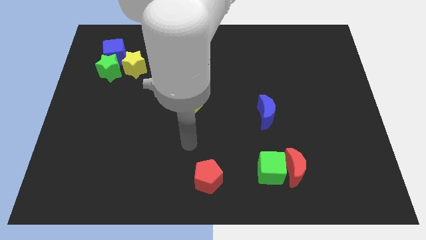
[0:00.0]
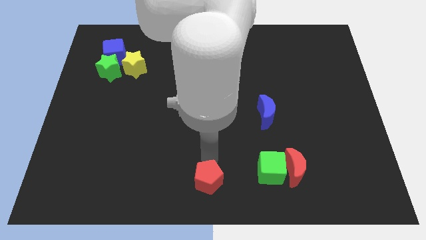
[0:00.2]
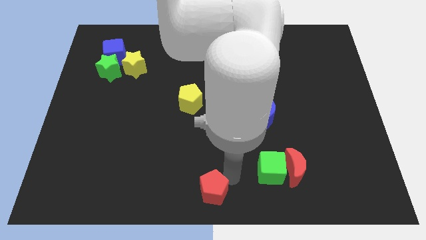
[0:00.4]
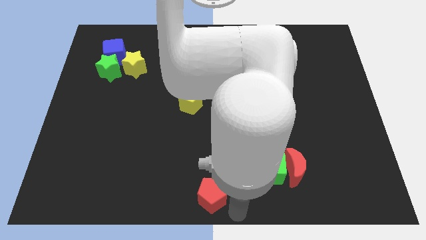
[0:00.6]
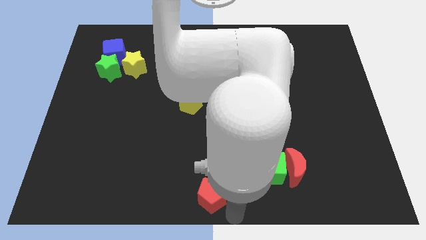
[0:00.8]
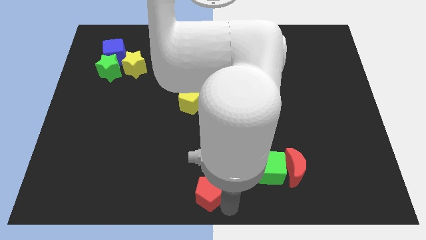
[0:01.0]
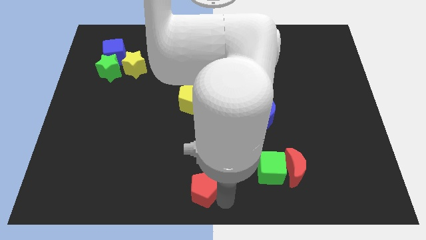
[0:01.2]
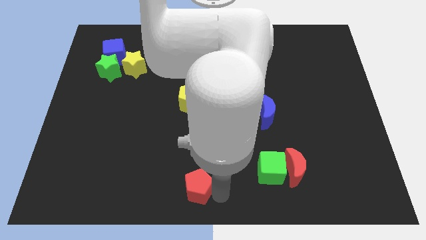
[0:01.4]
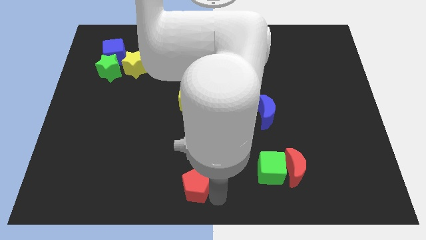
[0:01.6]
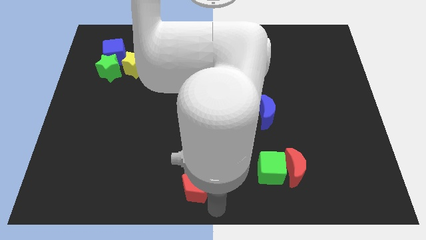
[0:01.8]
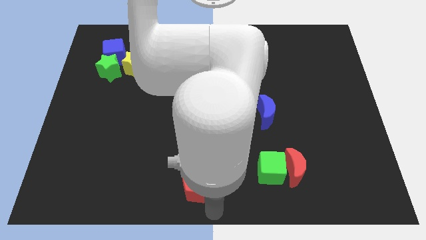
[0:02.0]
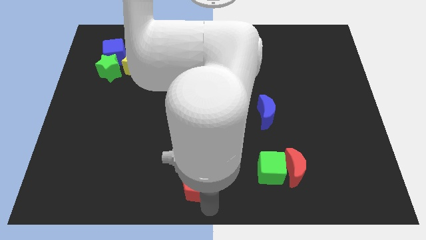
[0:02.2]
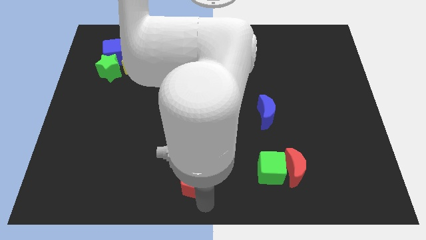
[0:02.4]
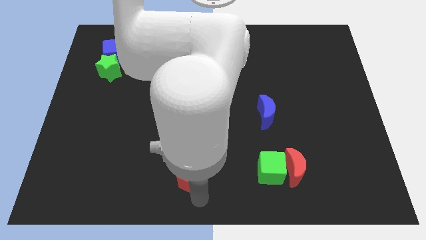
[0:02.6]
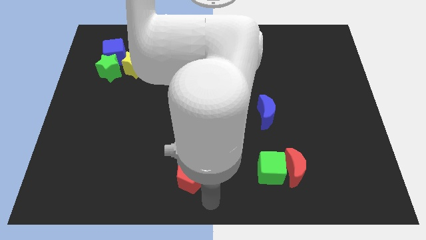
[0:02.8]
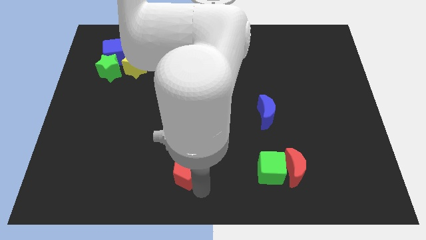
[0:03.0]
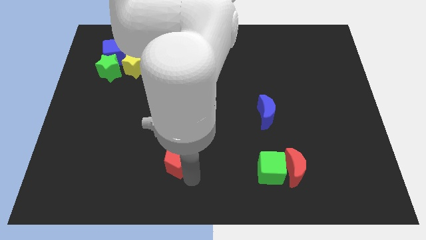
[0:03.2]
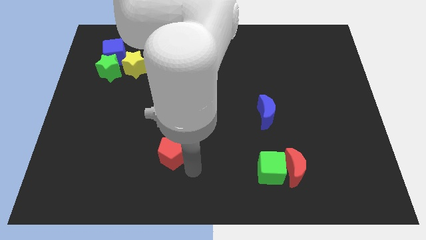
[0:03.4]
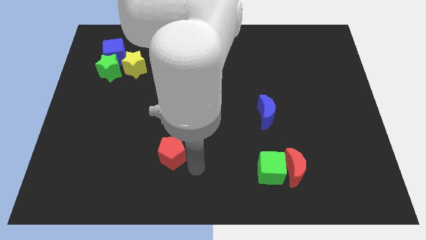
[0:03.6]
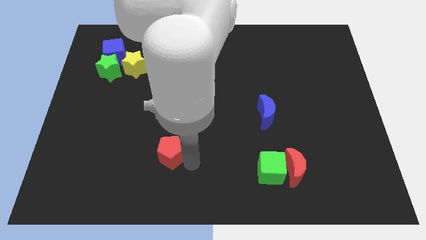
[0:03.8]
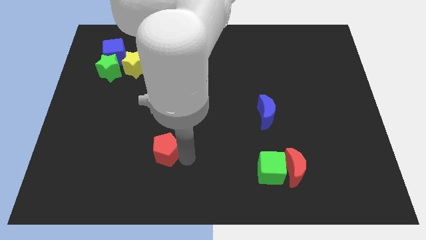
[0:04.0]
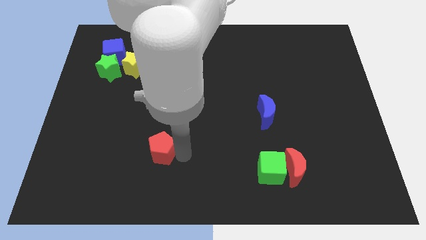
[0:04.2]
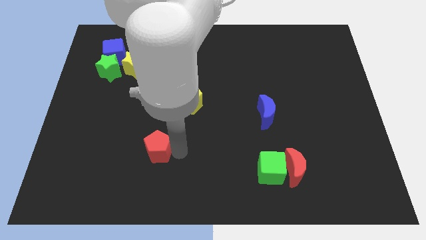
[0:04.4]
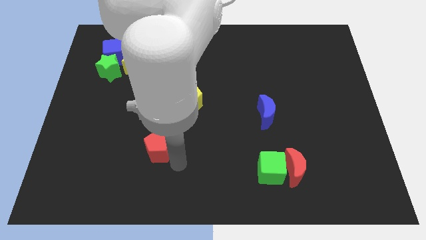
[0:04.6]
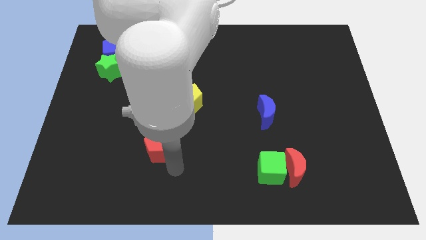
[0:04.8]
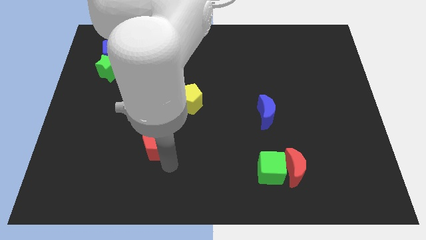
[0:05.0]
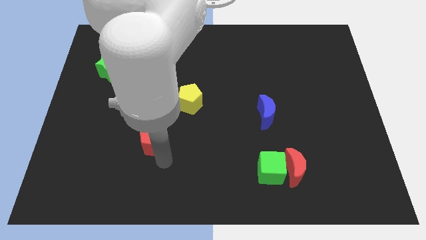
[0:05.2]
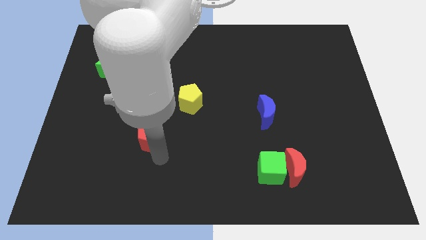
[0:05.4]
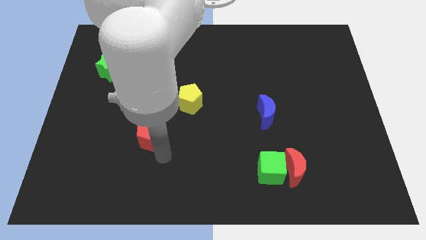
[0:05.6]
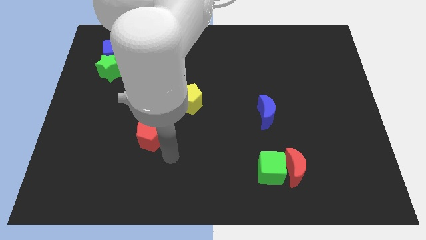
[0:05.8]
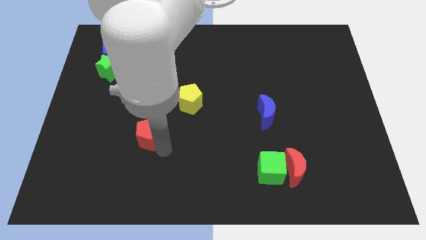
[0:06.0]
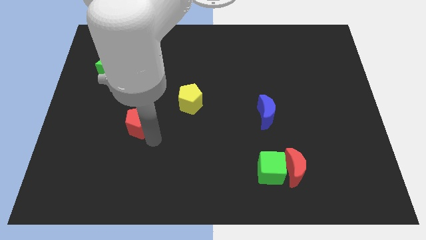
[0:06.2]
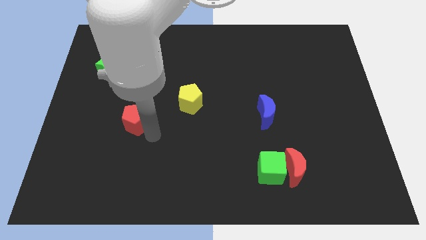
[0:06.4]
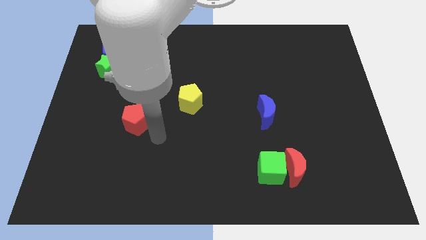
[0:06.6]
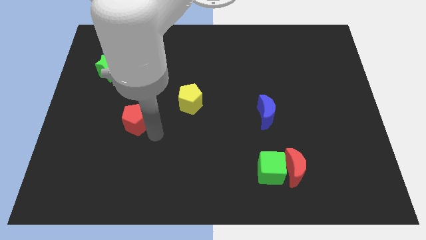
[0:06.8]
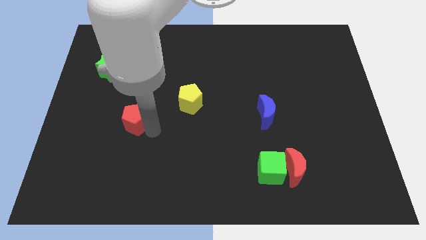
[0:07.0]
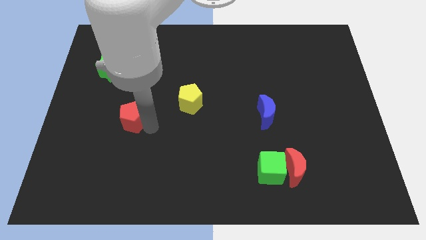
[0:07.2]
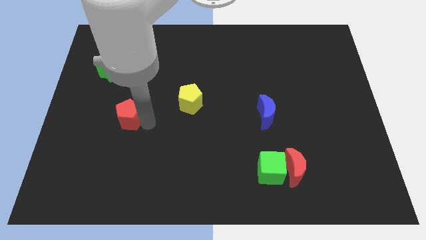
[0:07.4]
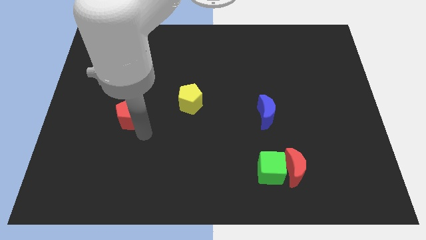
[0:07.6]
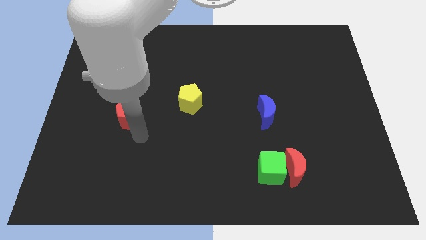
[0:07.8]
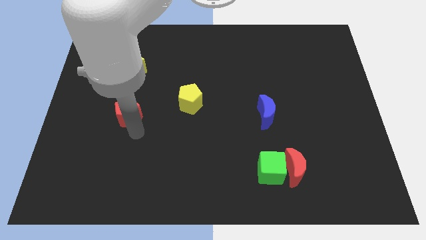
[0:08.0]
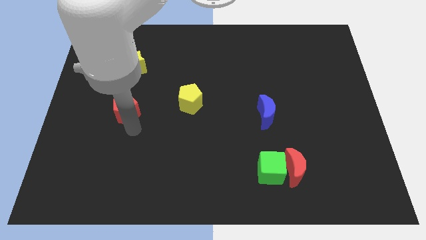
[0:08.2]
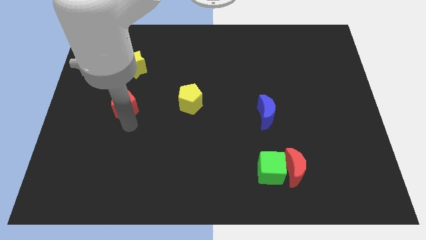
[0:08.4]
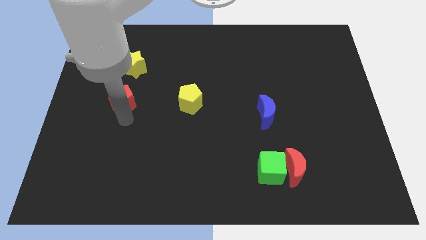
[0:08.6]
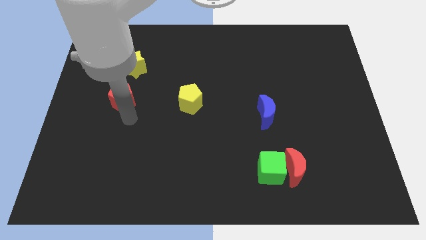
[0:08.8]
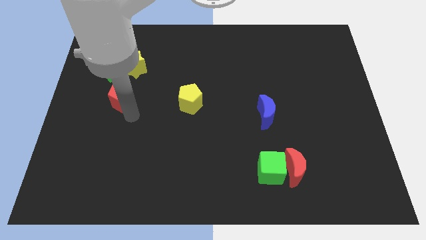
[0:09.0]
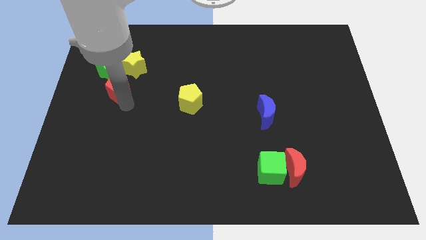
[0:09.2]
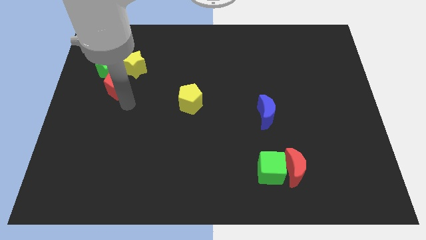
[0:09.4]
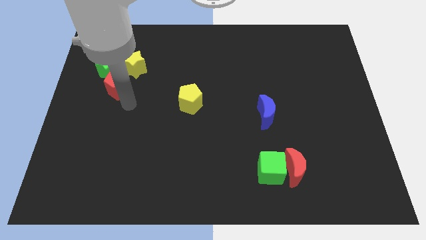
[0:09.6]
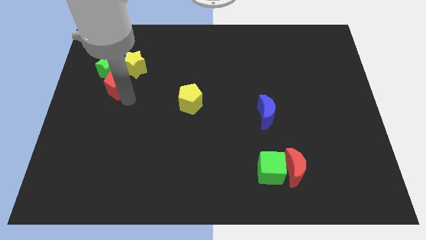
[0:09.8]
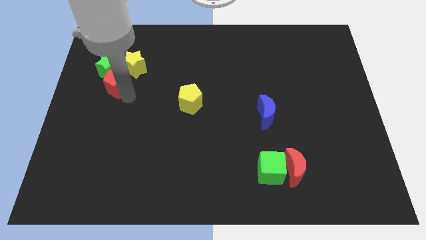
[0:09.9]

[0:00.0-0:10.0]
slide the red pentagon next to the green star

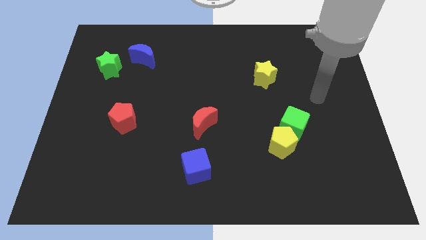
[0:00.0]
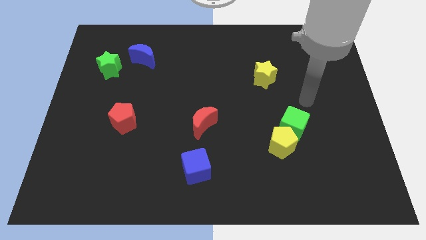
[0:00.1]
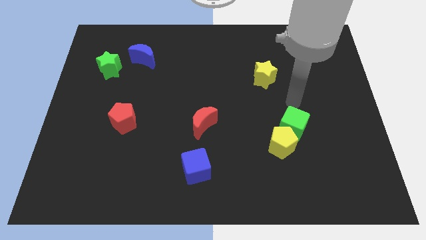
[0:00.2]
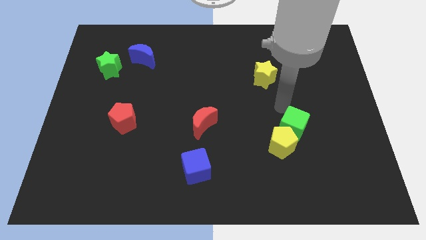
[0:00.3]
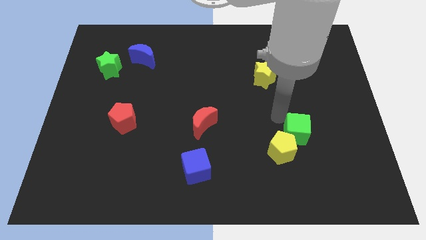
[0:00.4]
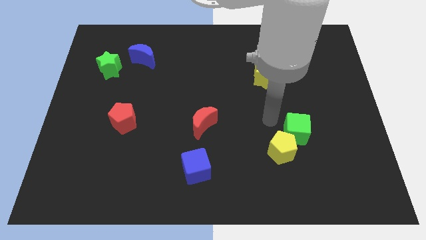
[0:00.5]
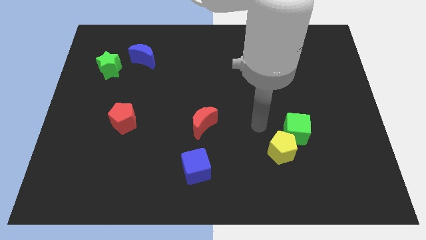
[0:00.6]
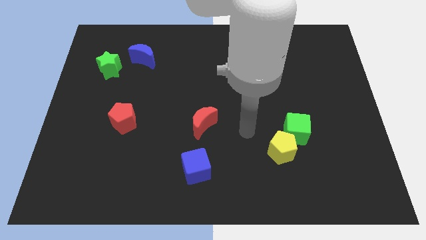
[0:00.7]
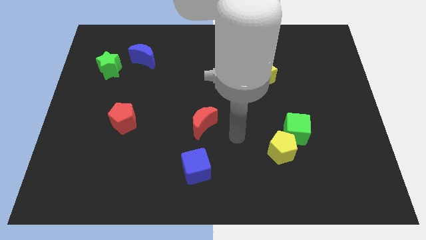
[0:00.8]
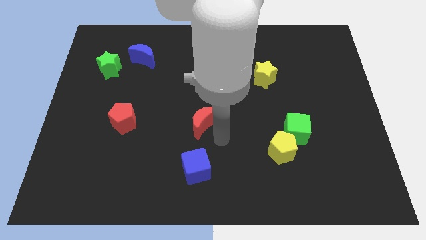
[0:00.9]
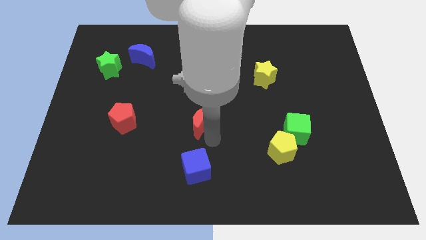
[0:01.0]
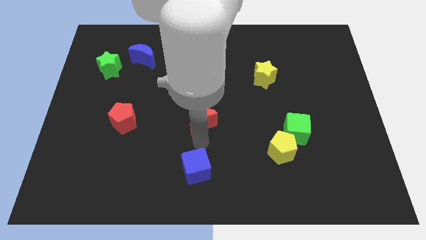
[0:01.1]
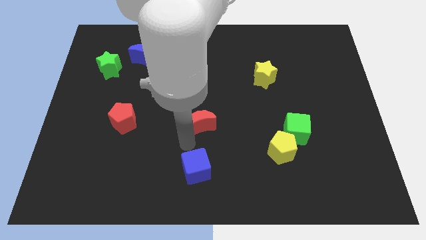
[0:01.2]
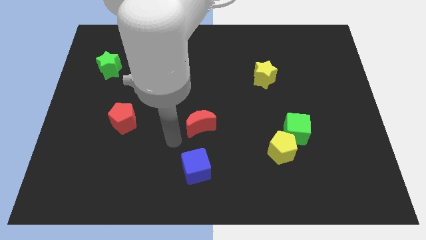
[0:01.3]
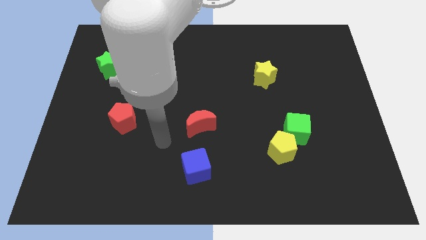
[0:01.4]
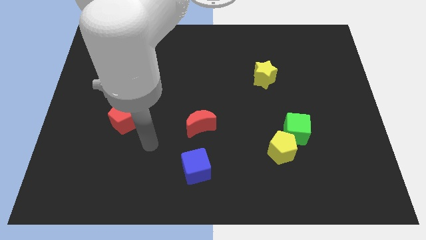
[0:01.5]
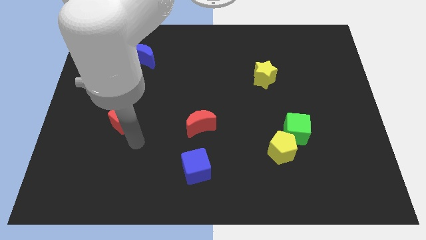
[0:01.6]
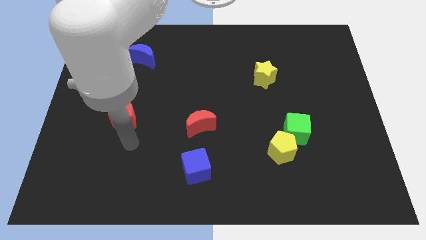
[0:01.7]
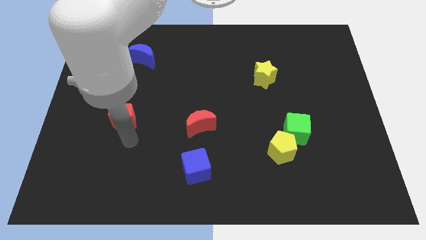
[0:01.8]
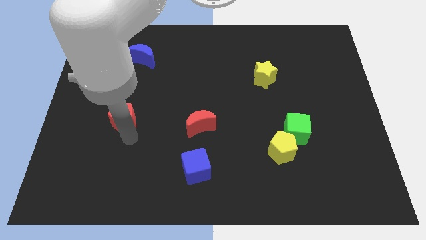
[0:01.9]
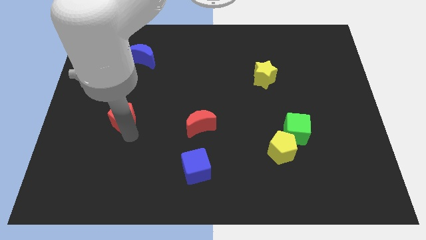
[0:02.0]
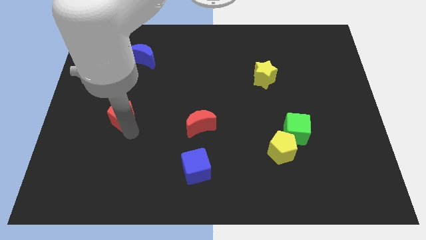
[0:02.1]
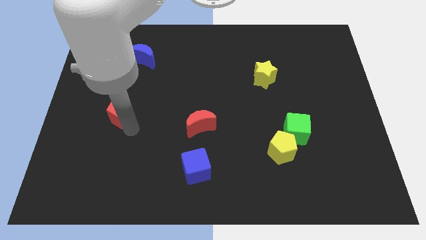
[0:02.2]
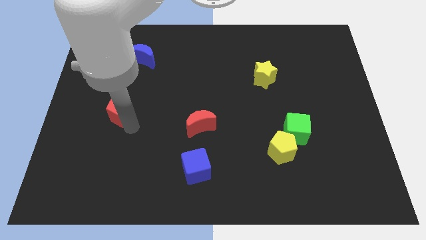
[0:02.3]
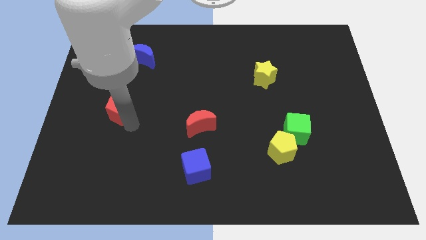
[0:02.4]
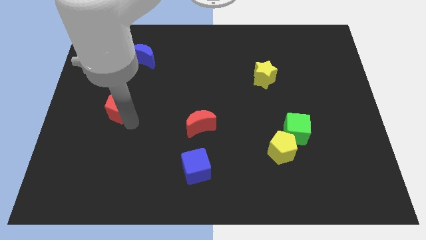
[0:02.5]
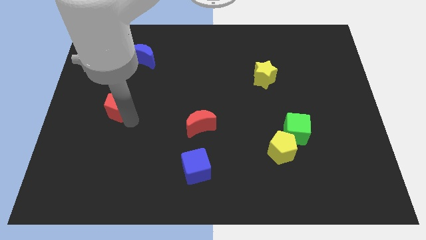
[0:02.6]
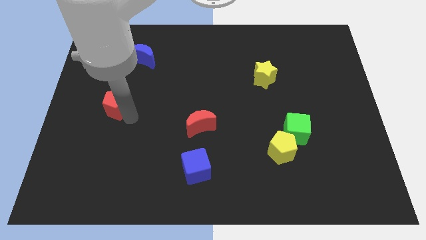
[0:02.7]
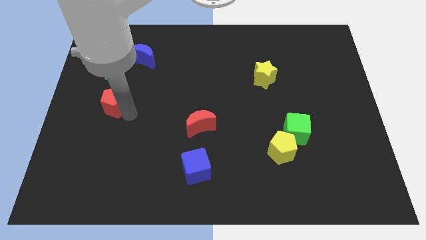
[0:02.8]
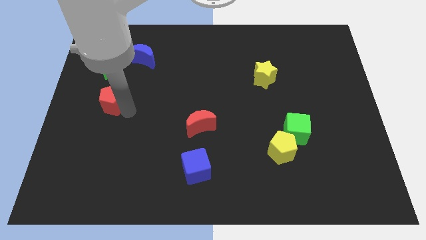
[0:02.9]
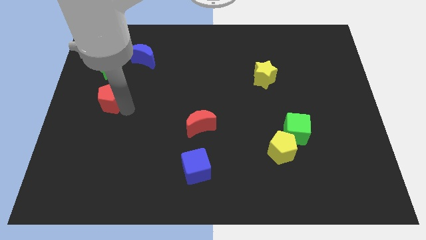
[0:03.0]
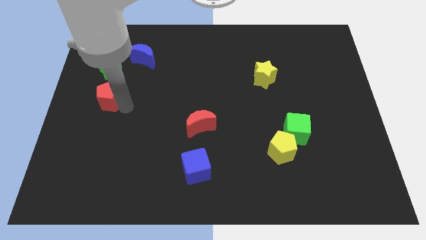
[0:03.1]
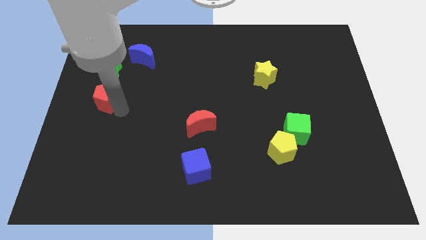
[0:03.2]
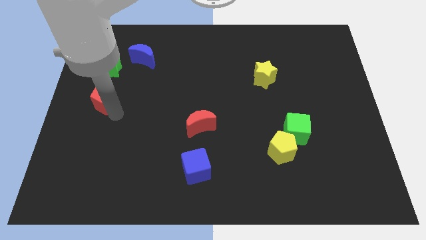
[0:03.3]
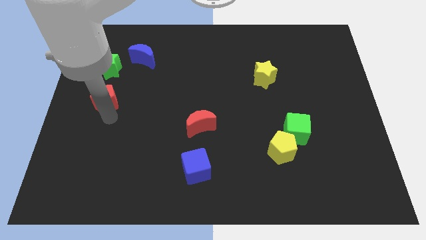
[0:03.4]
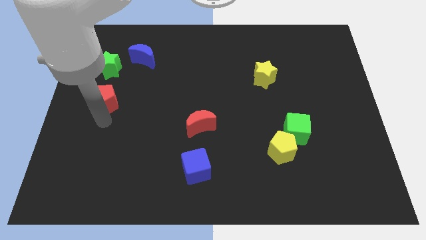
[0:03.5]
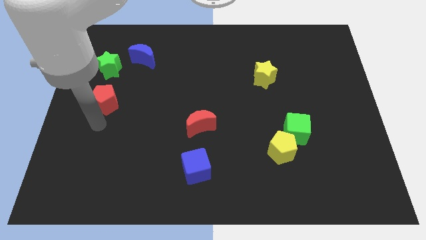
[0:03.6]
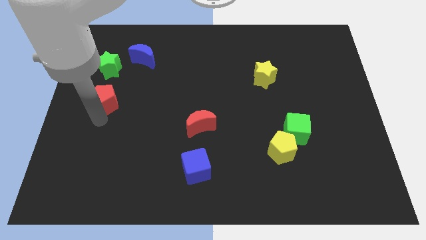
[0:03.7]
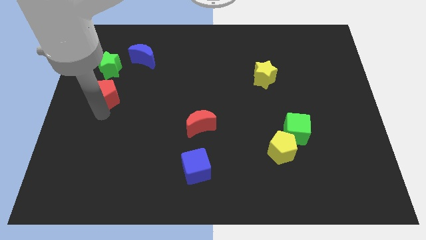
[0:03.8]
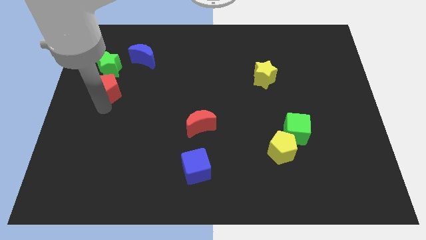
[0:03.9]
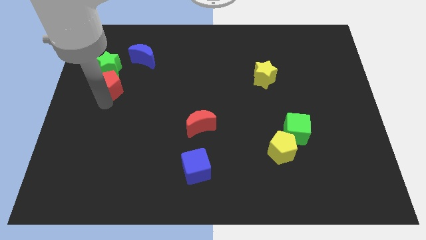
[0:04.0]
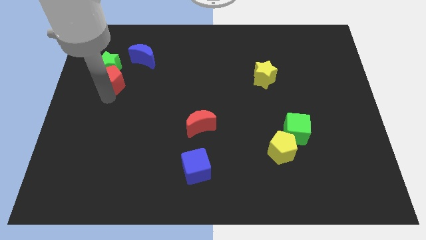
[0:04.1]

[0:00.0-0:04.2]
move the red pentagon towards the green star
